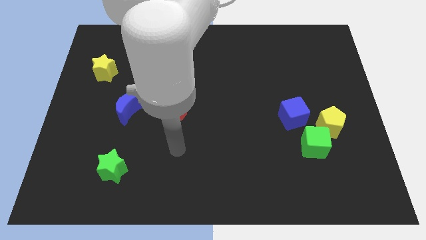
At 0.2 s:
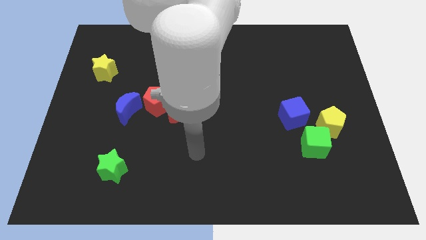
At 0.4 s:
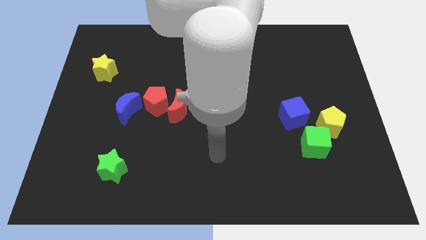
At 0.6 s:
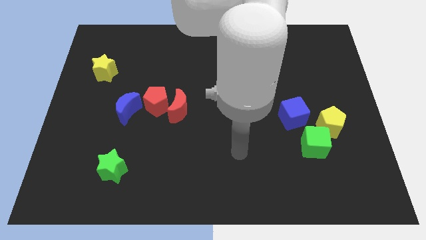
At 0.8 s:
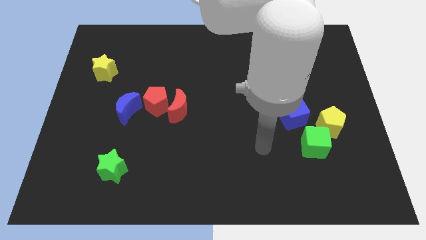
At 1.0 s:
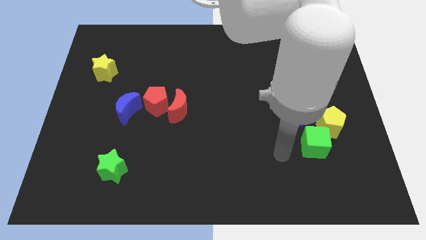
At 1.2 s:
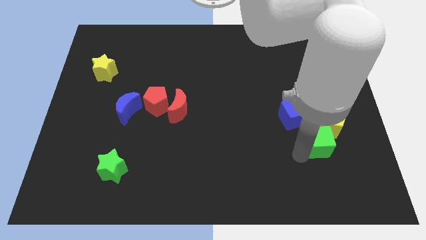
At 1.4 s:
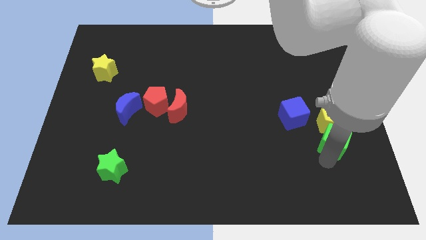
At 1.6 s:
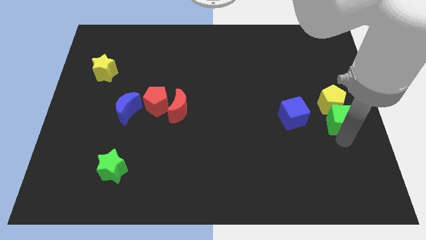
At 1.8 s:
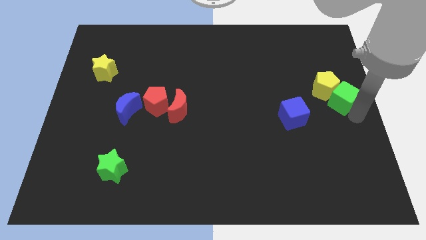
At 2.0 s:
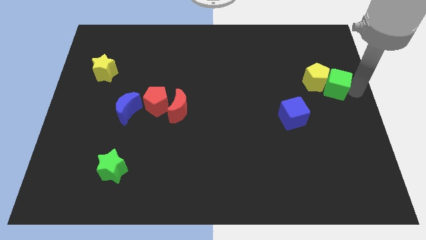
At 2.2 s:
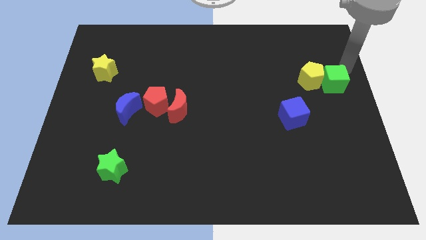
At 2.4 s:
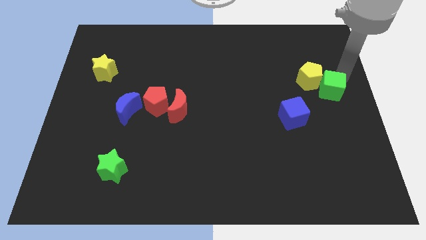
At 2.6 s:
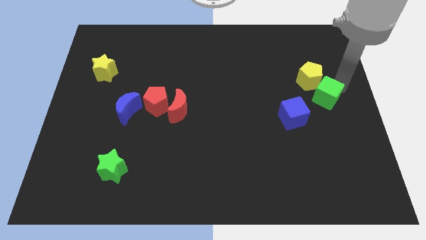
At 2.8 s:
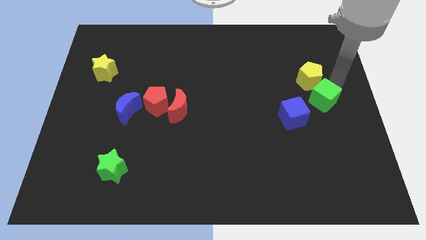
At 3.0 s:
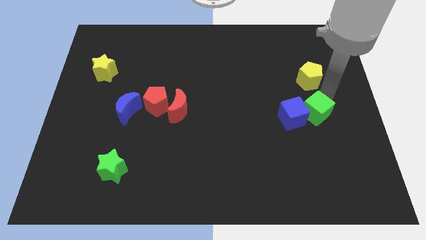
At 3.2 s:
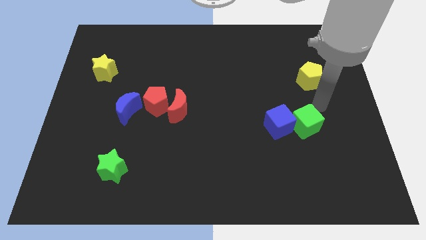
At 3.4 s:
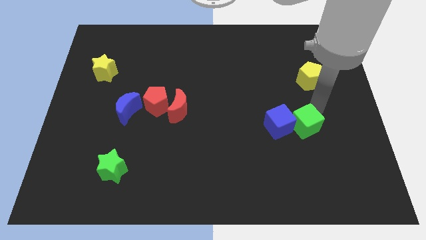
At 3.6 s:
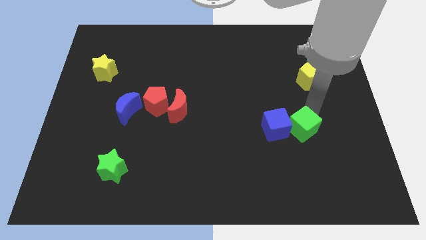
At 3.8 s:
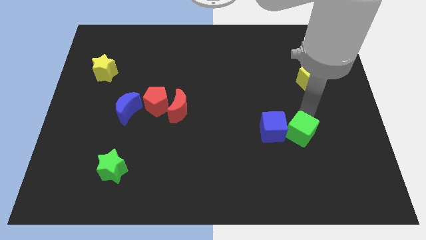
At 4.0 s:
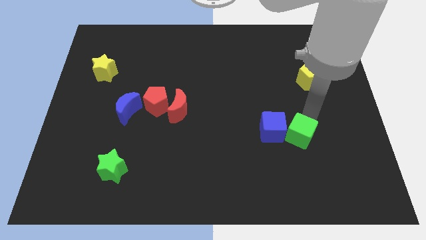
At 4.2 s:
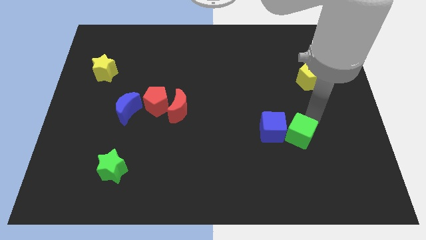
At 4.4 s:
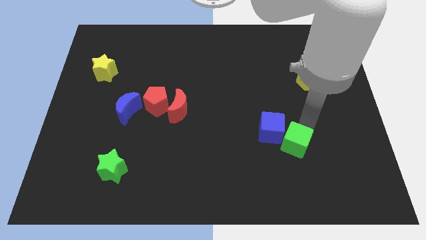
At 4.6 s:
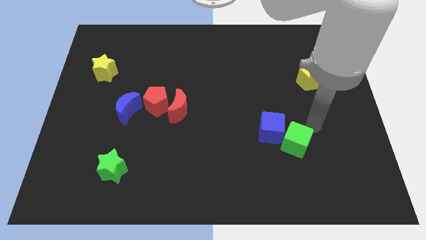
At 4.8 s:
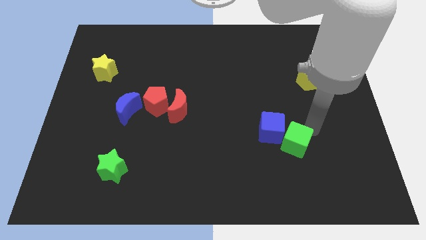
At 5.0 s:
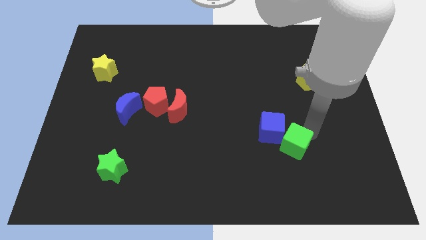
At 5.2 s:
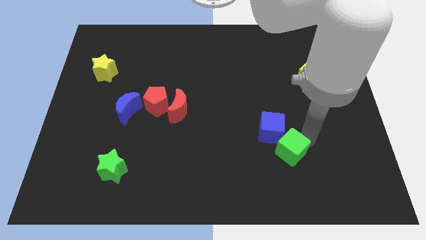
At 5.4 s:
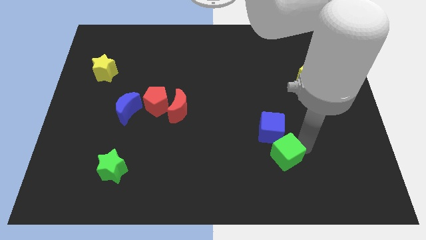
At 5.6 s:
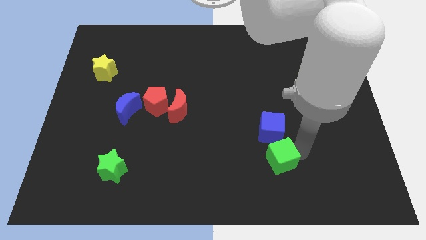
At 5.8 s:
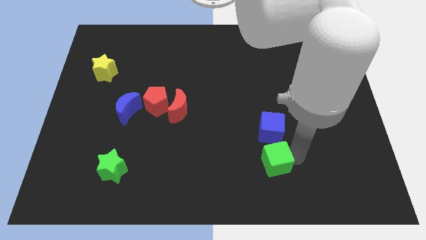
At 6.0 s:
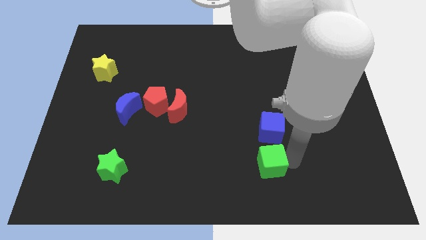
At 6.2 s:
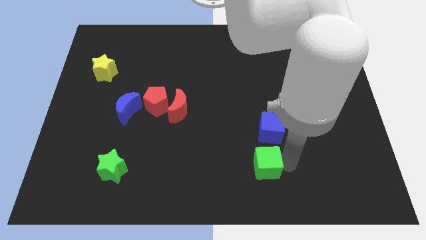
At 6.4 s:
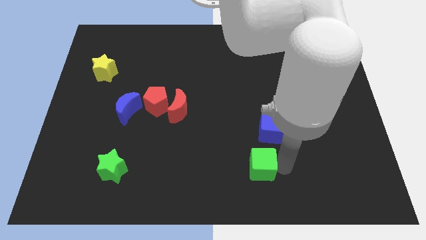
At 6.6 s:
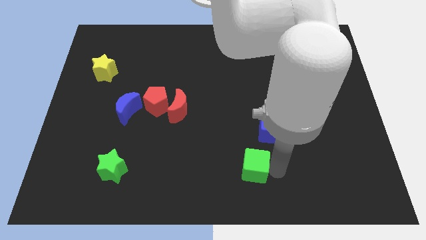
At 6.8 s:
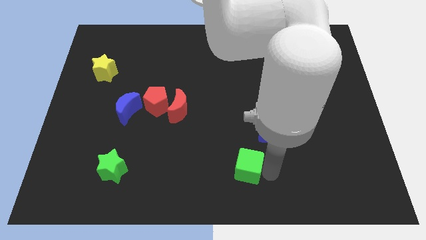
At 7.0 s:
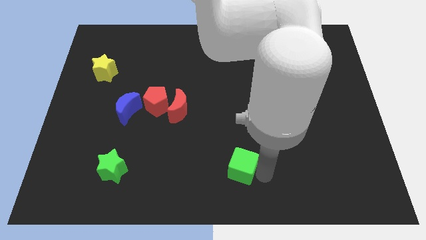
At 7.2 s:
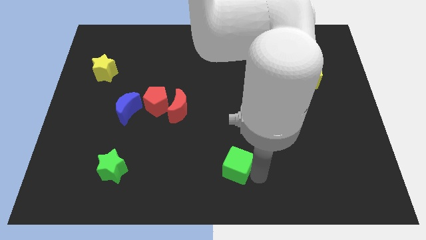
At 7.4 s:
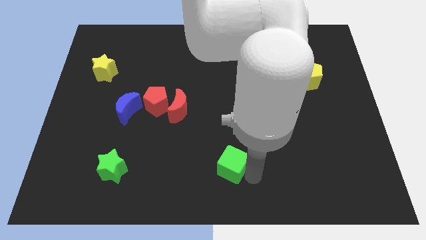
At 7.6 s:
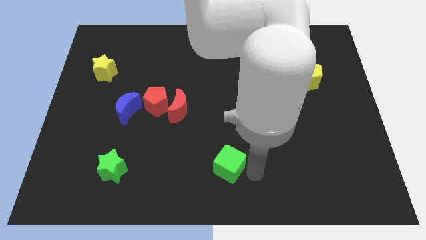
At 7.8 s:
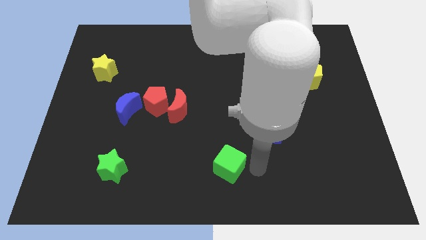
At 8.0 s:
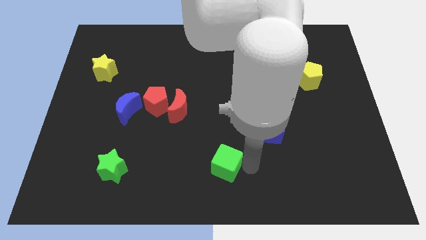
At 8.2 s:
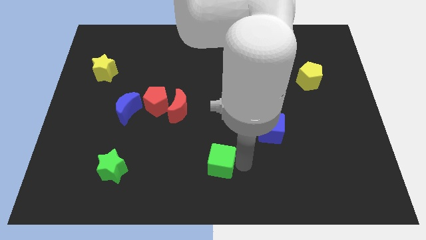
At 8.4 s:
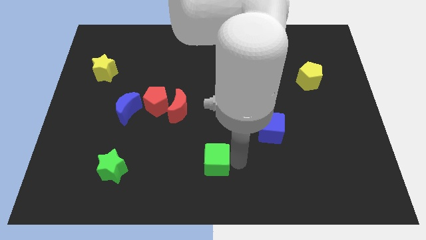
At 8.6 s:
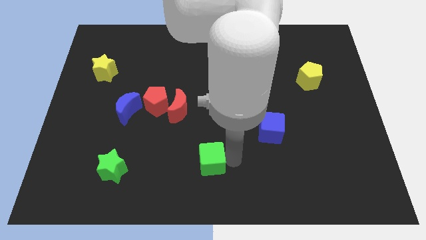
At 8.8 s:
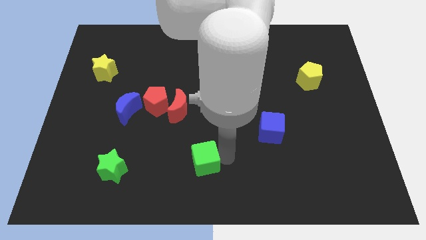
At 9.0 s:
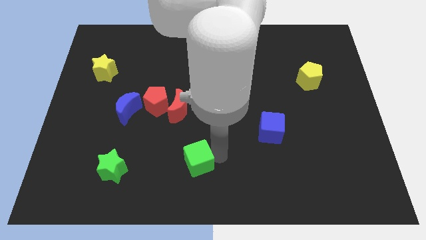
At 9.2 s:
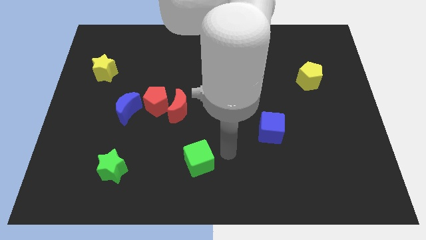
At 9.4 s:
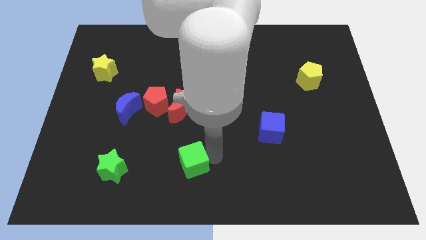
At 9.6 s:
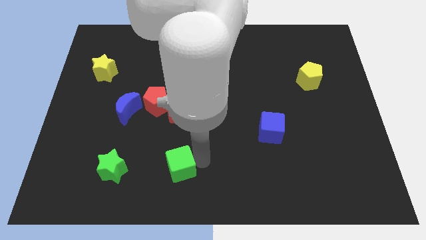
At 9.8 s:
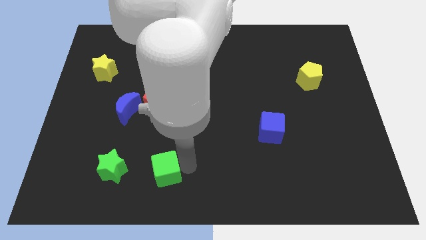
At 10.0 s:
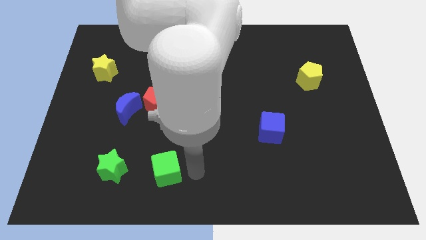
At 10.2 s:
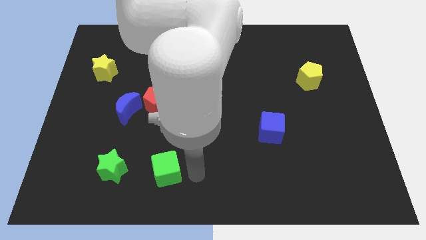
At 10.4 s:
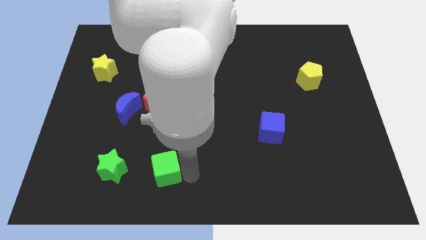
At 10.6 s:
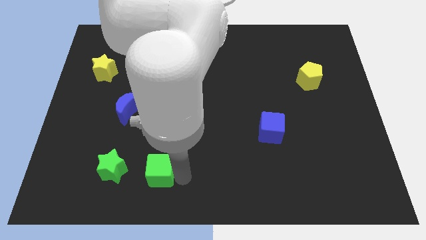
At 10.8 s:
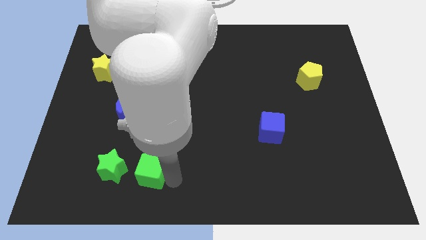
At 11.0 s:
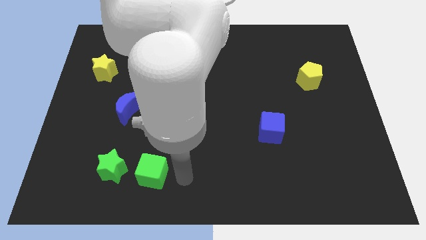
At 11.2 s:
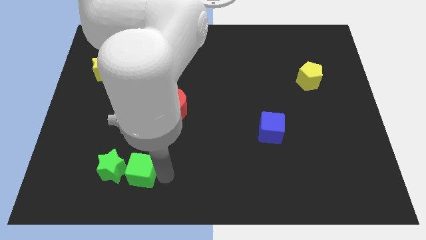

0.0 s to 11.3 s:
slide the green cube towards the green star

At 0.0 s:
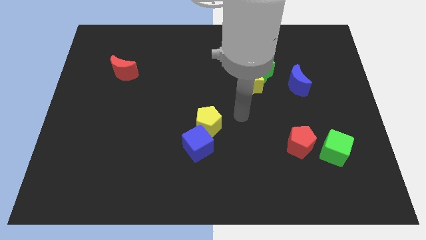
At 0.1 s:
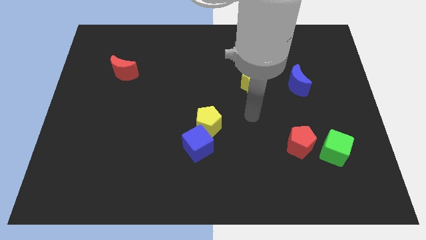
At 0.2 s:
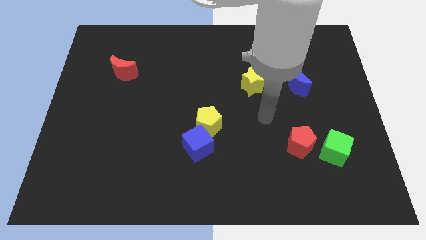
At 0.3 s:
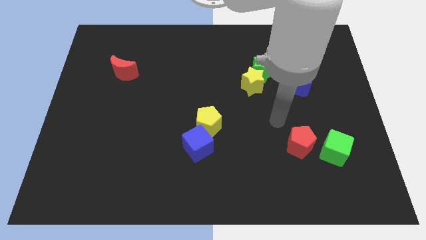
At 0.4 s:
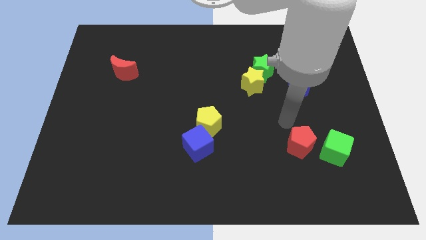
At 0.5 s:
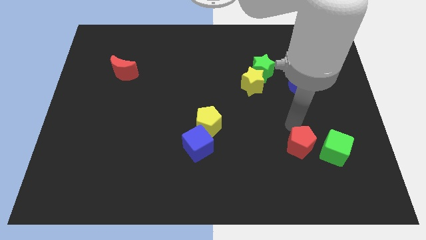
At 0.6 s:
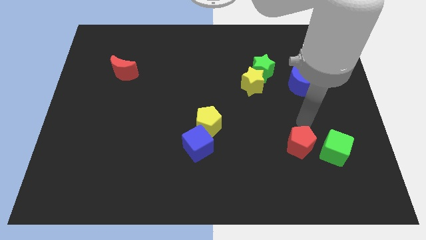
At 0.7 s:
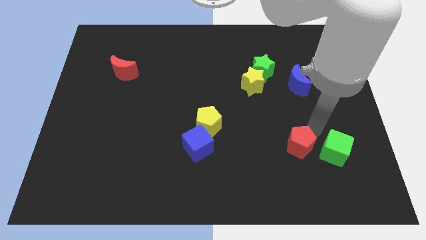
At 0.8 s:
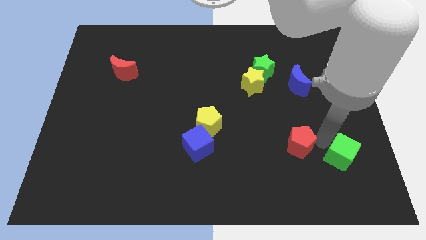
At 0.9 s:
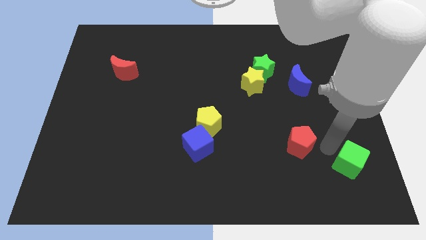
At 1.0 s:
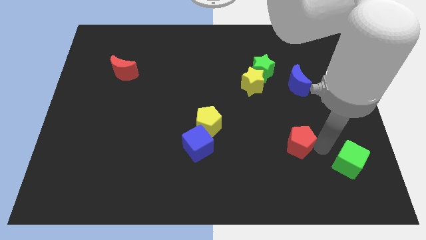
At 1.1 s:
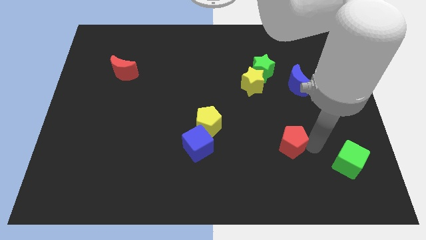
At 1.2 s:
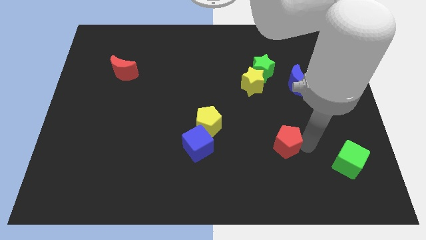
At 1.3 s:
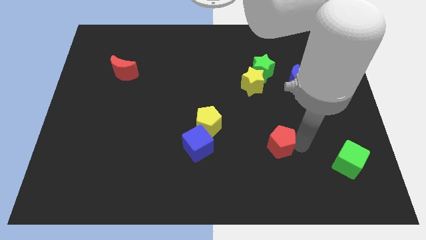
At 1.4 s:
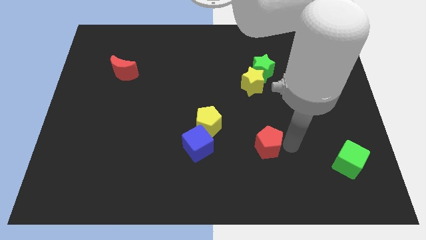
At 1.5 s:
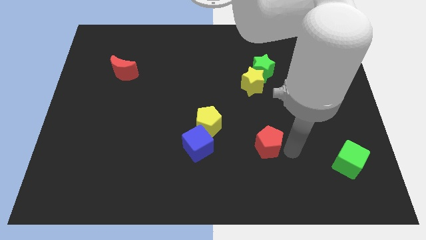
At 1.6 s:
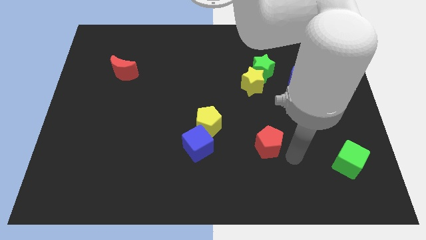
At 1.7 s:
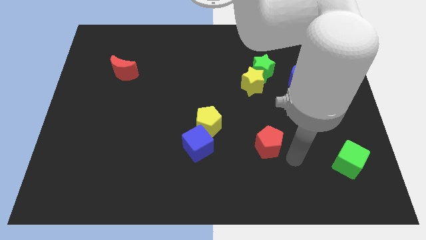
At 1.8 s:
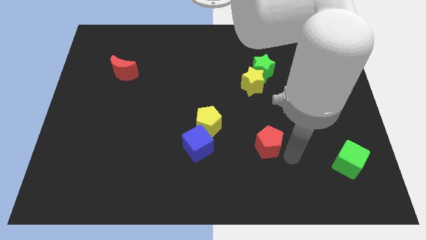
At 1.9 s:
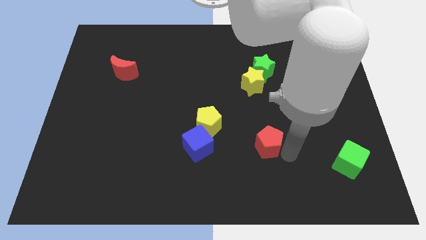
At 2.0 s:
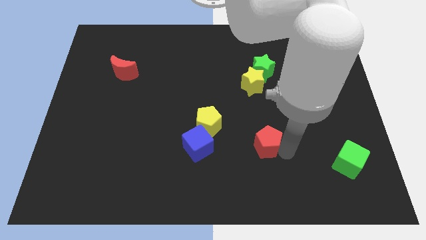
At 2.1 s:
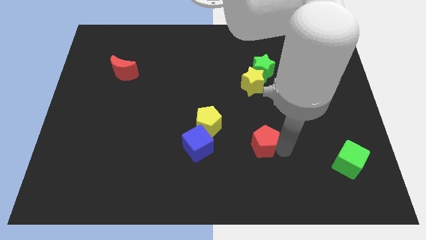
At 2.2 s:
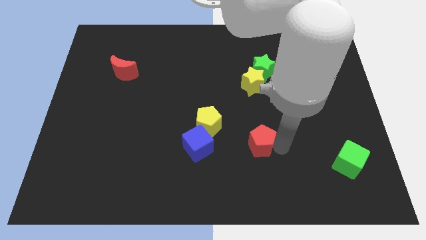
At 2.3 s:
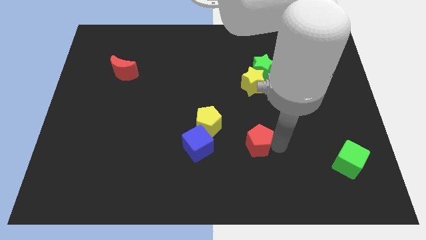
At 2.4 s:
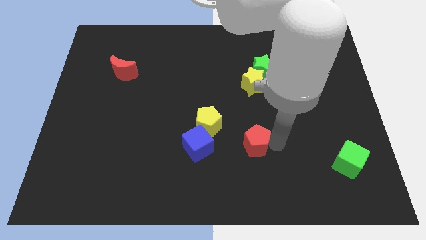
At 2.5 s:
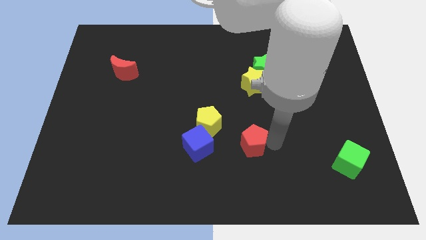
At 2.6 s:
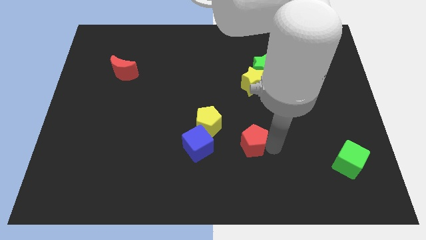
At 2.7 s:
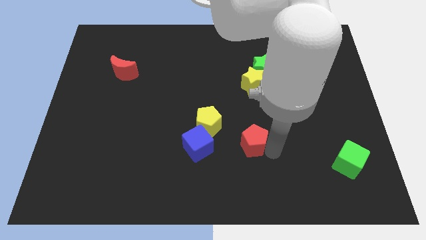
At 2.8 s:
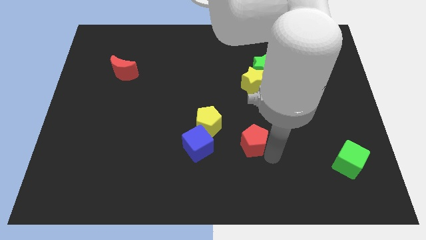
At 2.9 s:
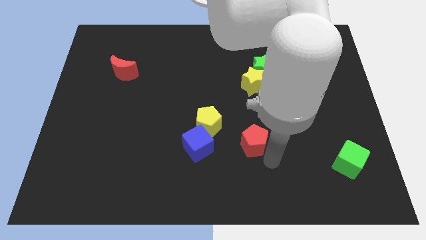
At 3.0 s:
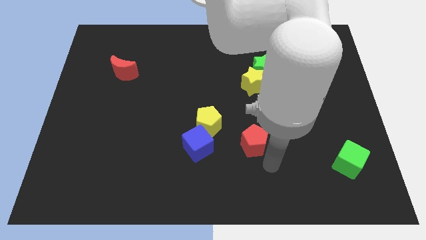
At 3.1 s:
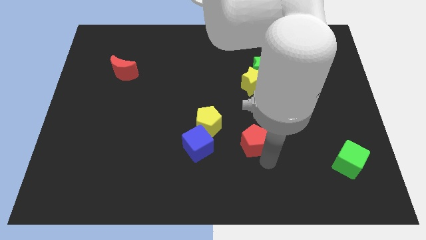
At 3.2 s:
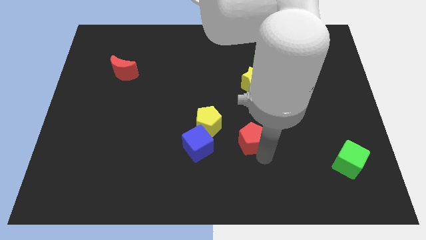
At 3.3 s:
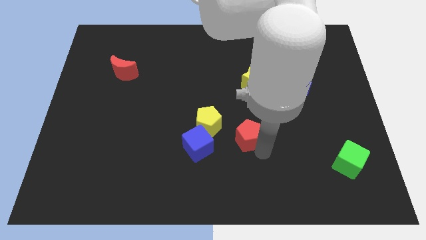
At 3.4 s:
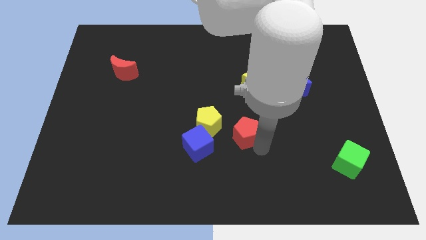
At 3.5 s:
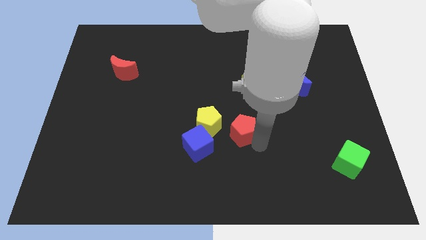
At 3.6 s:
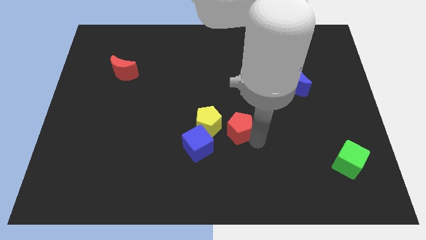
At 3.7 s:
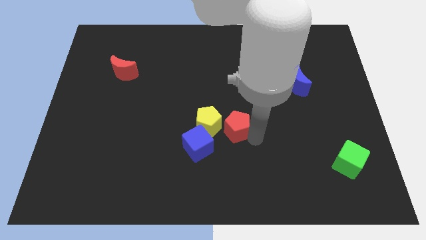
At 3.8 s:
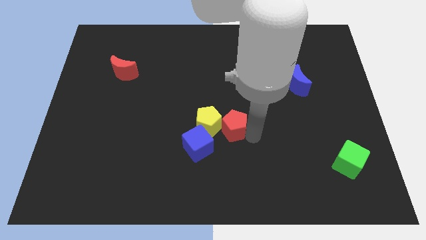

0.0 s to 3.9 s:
put the red pentagon to the yellow pentagon
